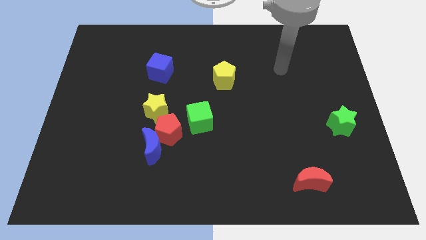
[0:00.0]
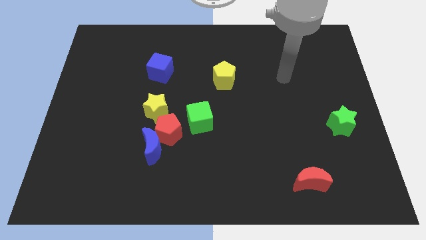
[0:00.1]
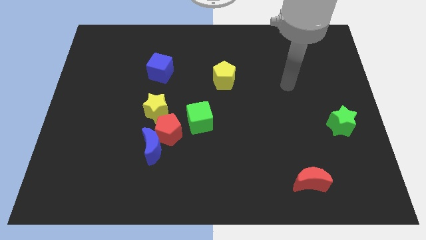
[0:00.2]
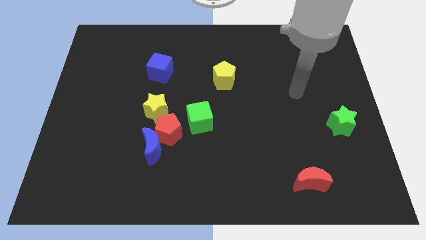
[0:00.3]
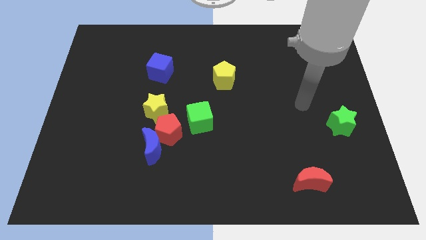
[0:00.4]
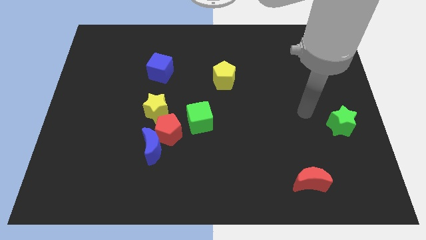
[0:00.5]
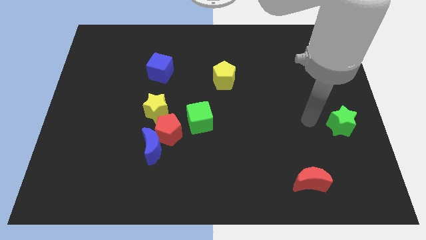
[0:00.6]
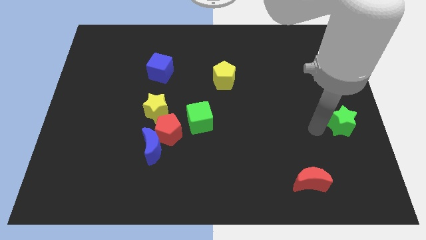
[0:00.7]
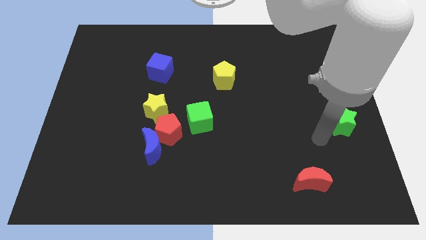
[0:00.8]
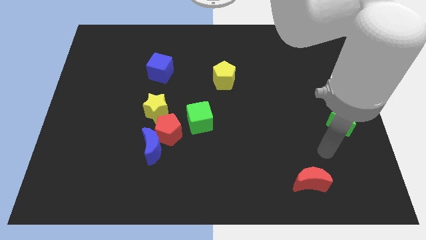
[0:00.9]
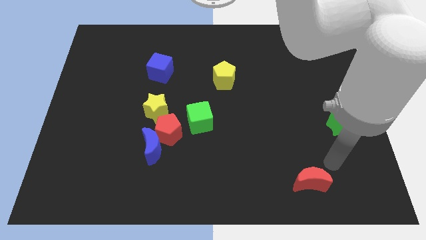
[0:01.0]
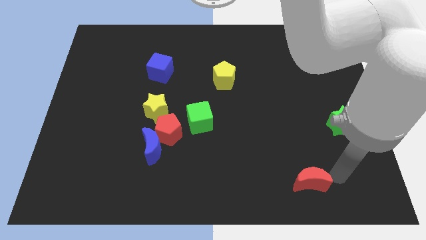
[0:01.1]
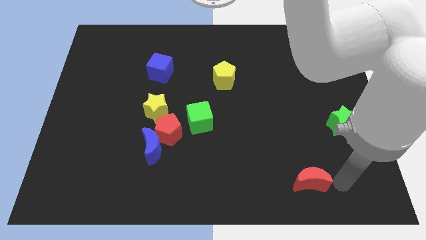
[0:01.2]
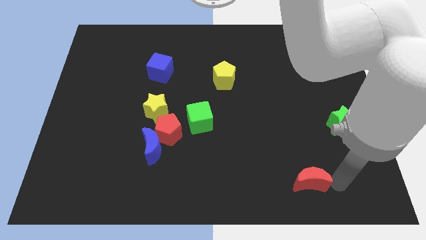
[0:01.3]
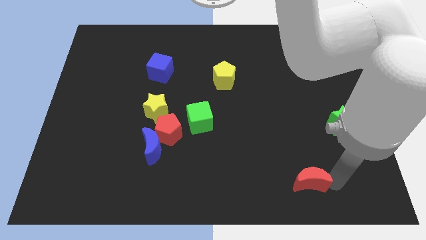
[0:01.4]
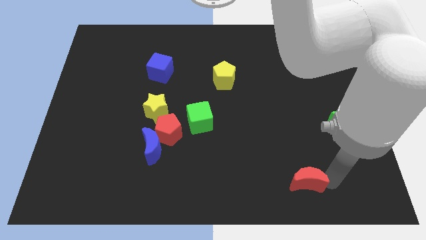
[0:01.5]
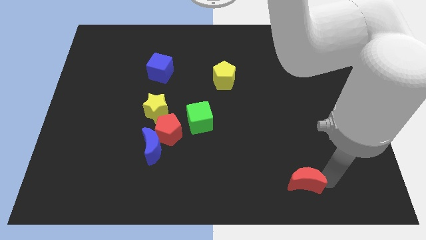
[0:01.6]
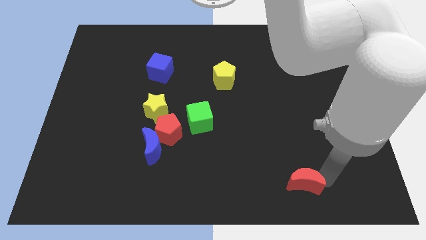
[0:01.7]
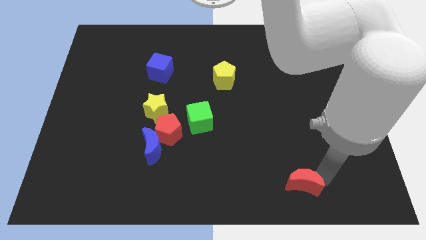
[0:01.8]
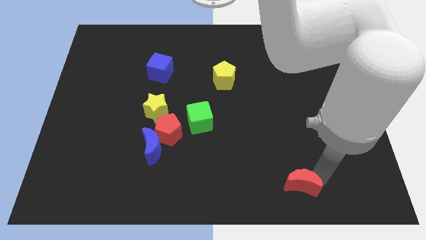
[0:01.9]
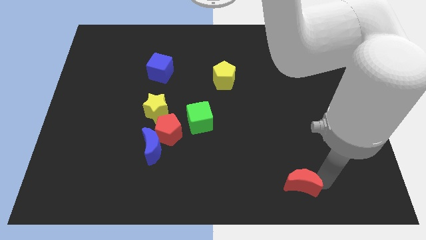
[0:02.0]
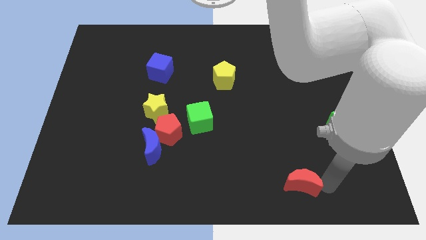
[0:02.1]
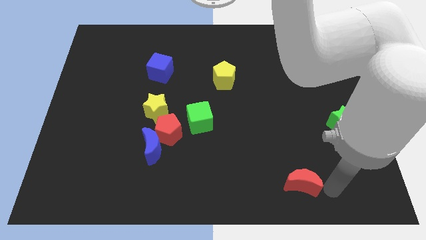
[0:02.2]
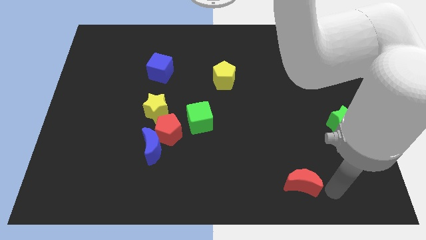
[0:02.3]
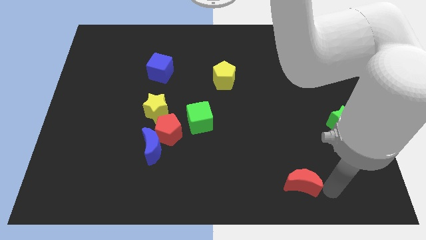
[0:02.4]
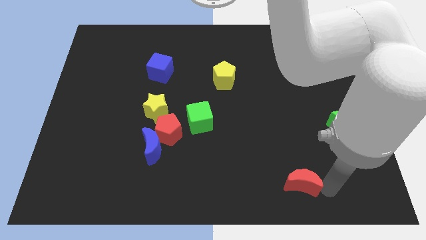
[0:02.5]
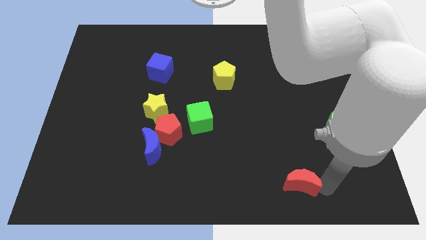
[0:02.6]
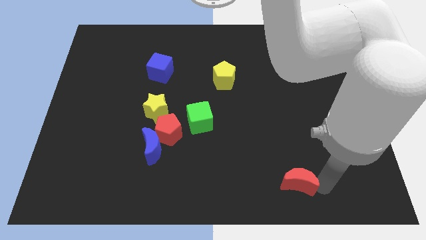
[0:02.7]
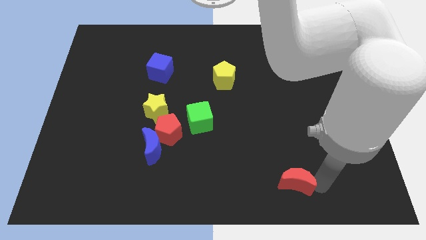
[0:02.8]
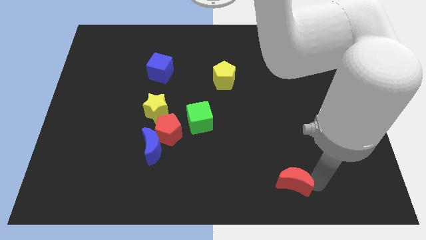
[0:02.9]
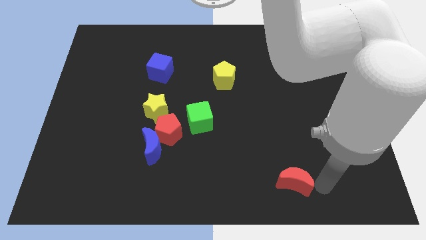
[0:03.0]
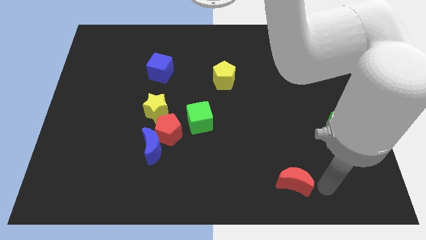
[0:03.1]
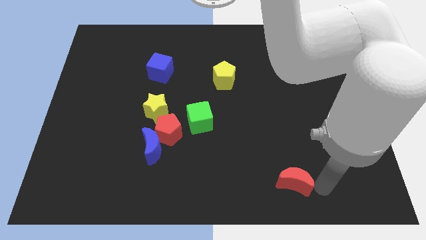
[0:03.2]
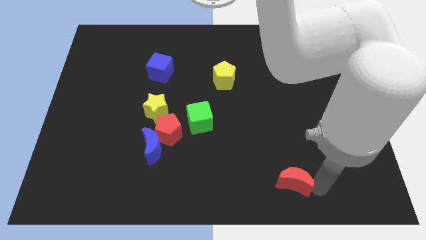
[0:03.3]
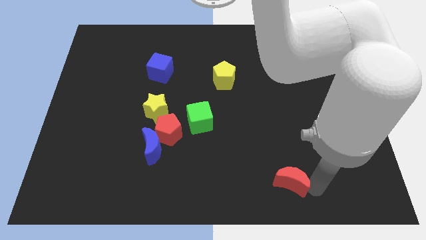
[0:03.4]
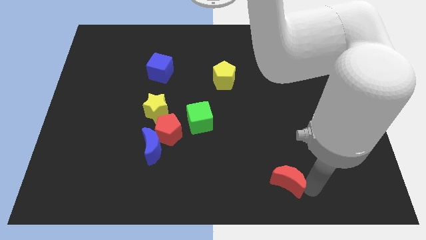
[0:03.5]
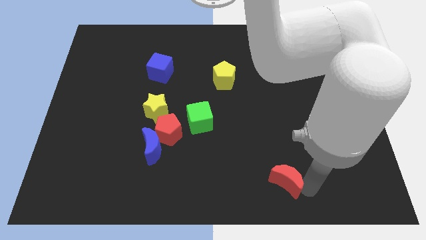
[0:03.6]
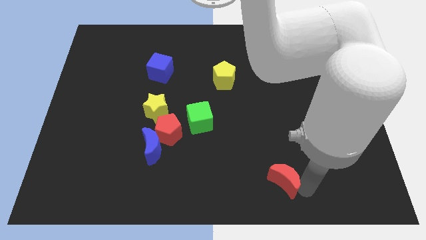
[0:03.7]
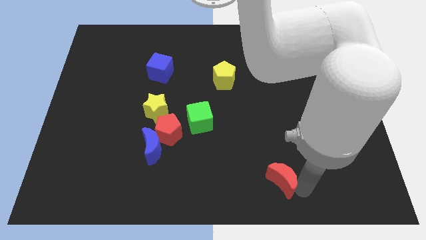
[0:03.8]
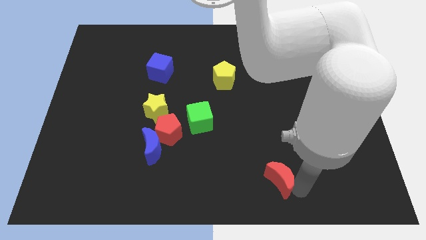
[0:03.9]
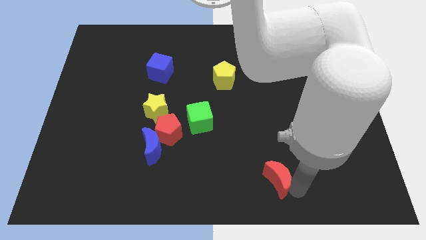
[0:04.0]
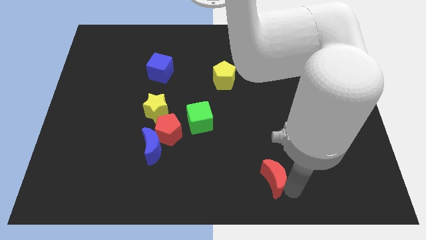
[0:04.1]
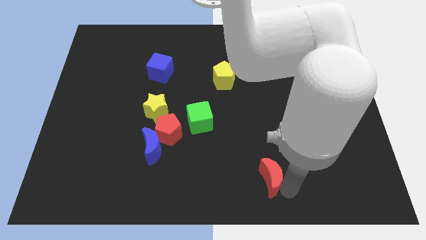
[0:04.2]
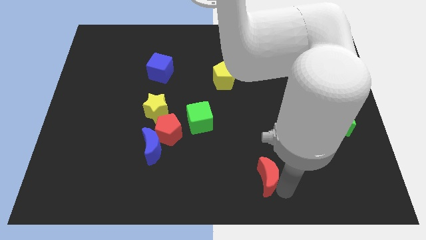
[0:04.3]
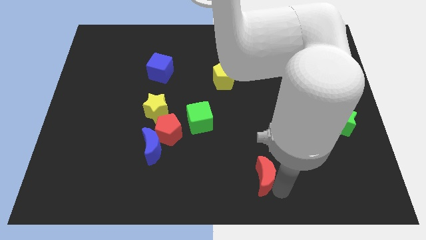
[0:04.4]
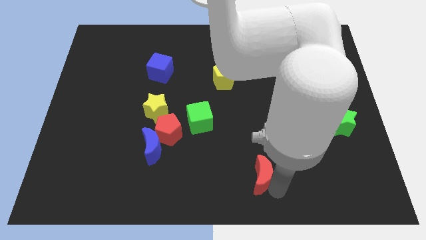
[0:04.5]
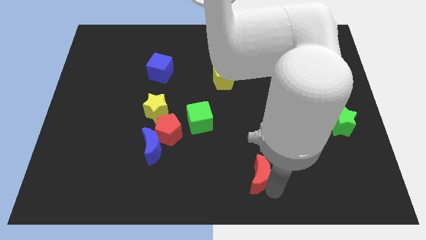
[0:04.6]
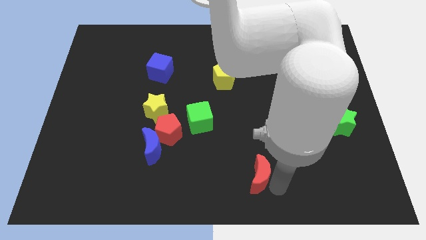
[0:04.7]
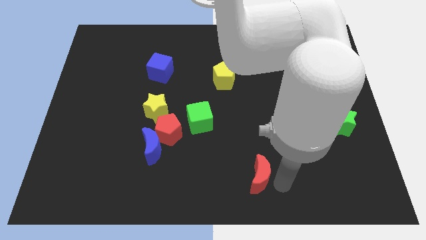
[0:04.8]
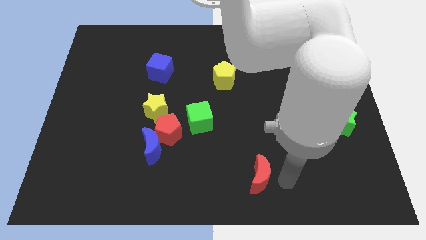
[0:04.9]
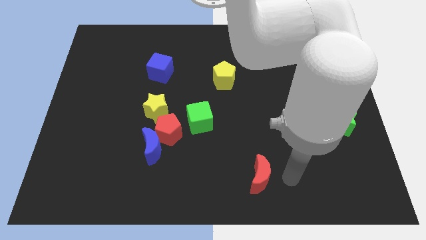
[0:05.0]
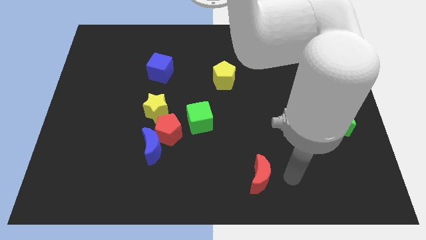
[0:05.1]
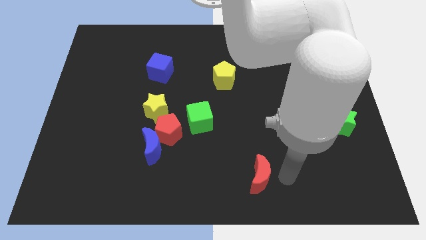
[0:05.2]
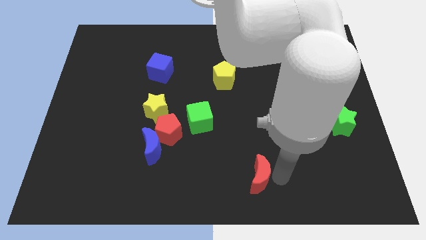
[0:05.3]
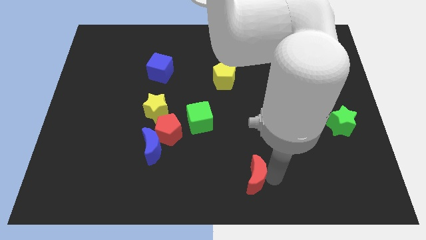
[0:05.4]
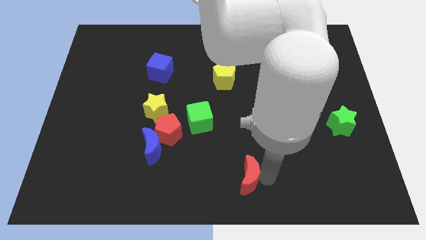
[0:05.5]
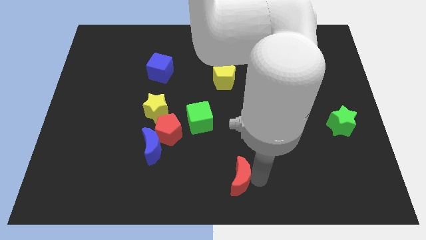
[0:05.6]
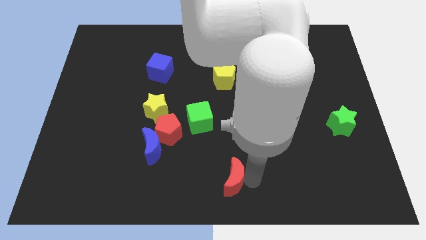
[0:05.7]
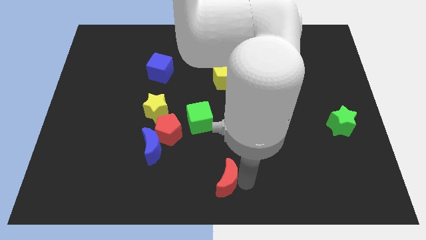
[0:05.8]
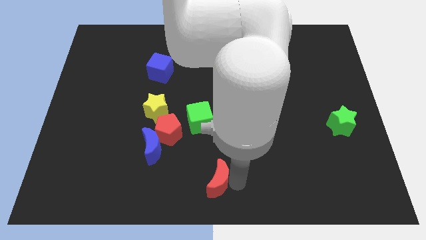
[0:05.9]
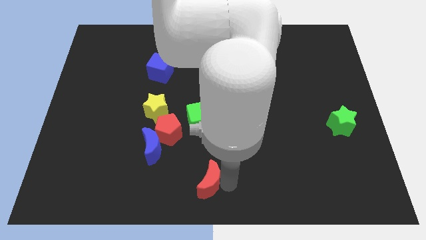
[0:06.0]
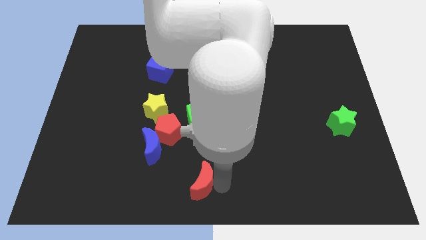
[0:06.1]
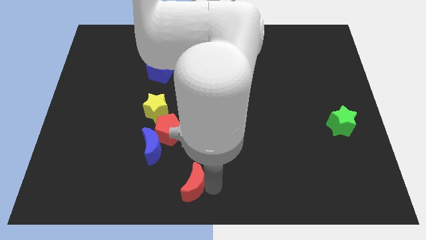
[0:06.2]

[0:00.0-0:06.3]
put the red moon to the bottom right side of the blue moon

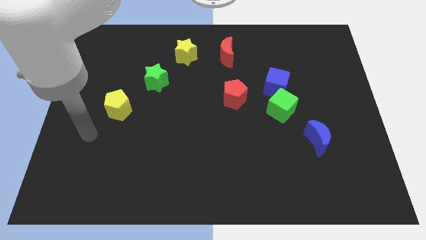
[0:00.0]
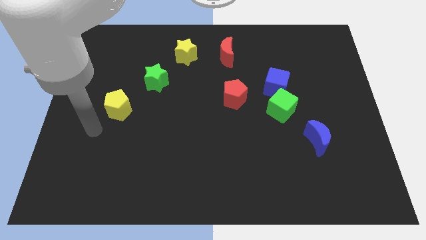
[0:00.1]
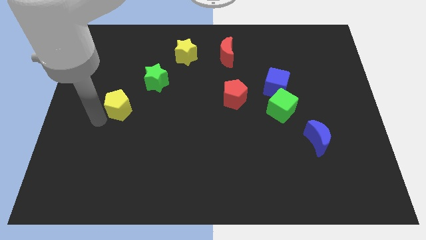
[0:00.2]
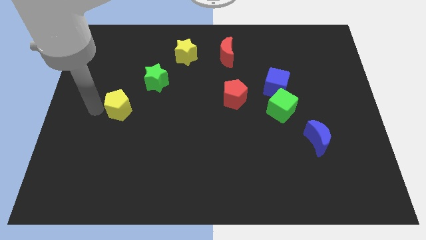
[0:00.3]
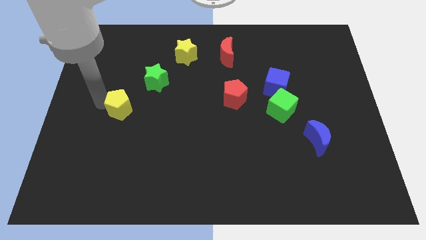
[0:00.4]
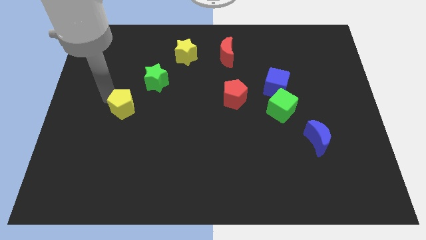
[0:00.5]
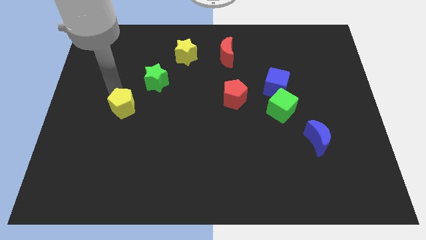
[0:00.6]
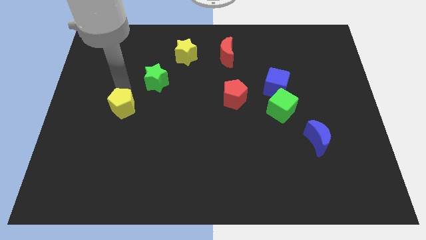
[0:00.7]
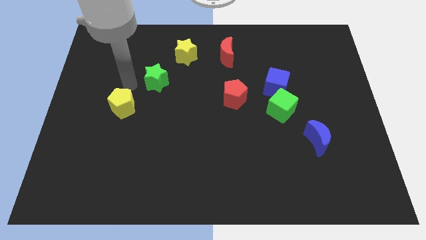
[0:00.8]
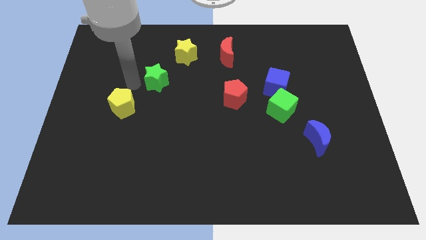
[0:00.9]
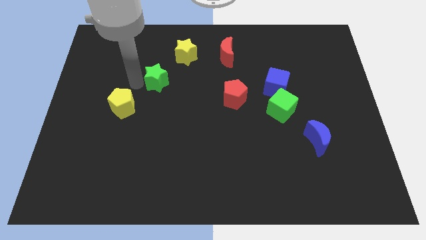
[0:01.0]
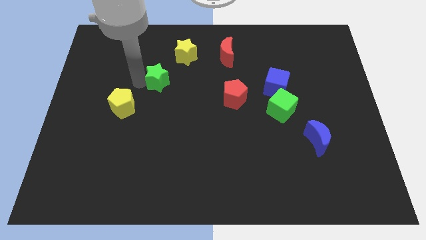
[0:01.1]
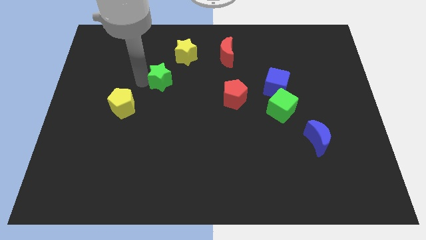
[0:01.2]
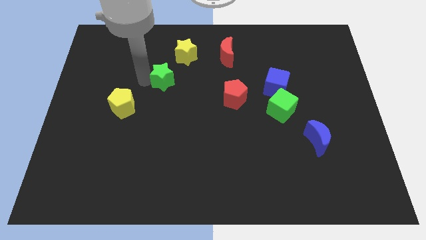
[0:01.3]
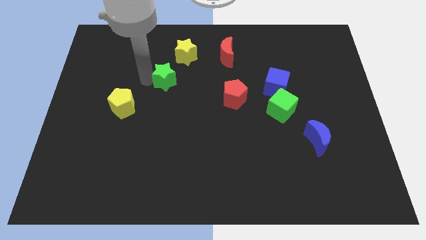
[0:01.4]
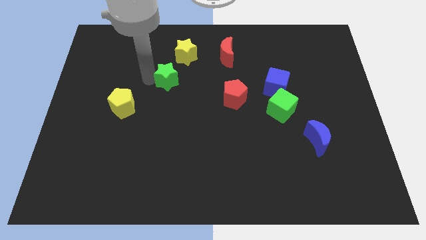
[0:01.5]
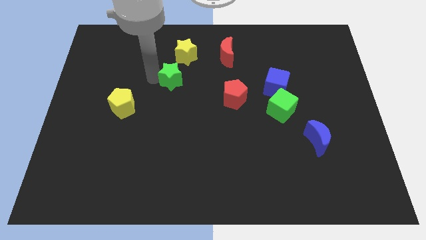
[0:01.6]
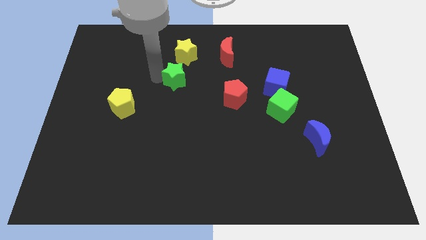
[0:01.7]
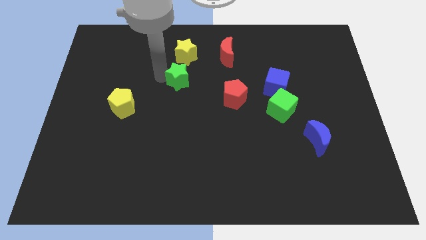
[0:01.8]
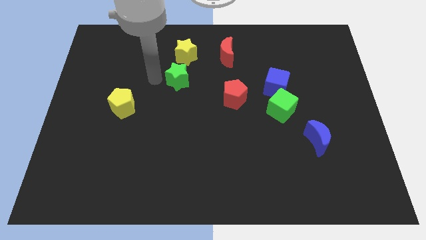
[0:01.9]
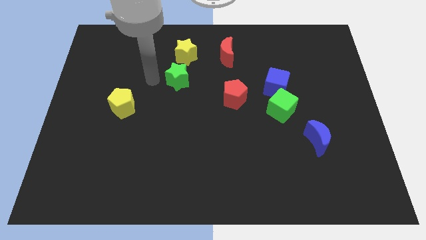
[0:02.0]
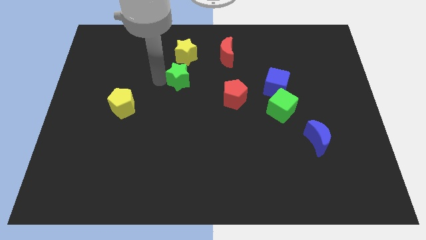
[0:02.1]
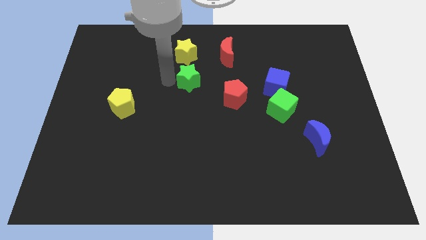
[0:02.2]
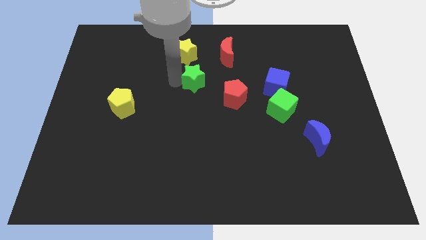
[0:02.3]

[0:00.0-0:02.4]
slide the green star to the top left of the red pentagon
